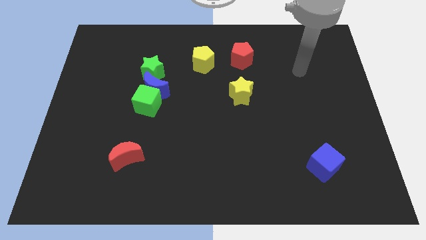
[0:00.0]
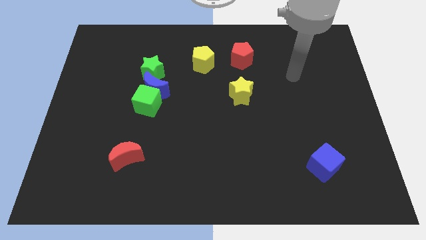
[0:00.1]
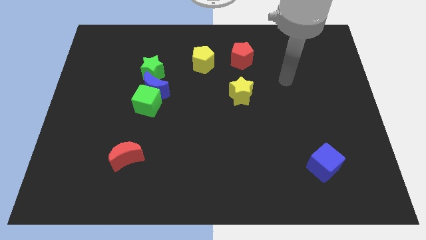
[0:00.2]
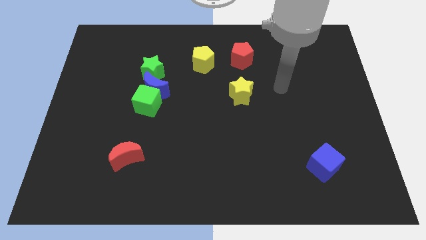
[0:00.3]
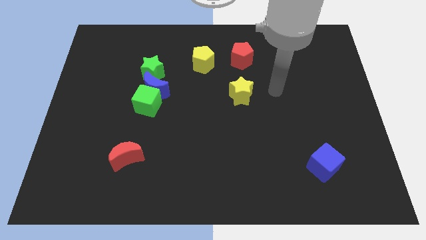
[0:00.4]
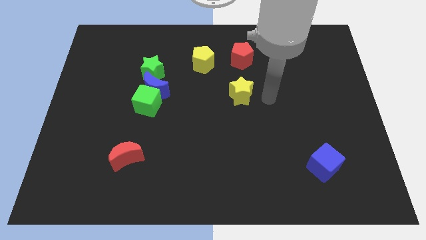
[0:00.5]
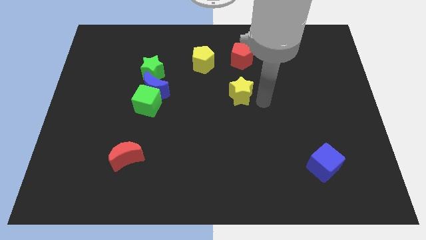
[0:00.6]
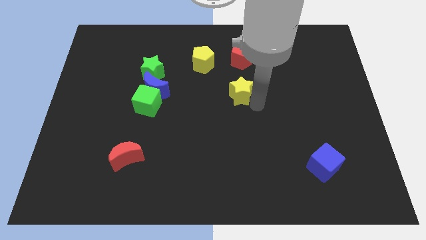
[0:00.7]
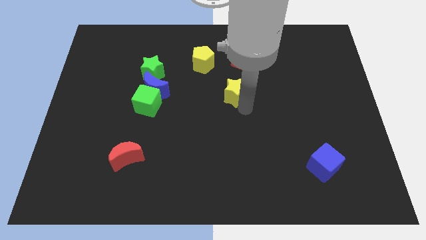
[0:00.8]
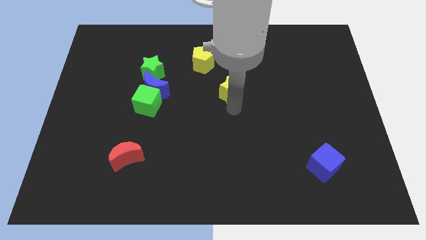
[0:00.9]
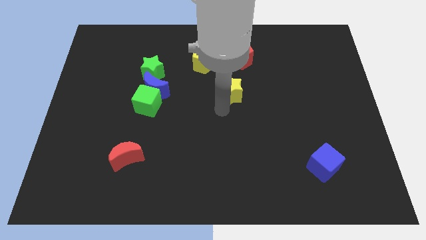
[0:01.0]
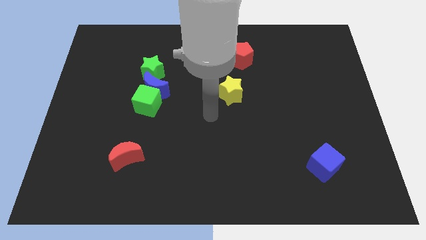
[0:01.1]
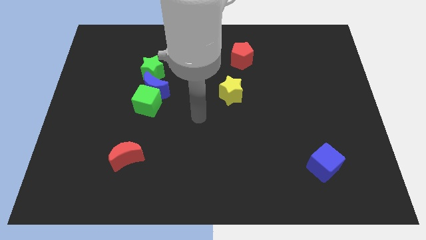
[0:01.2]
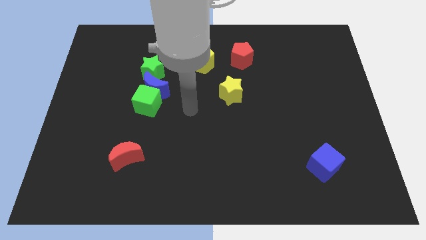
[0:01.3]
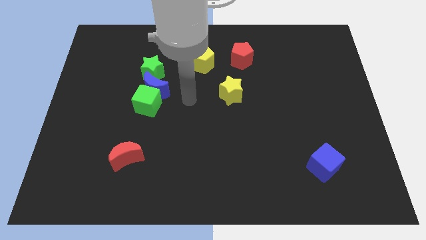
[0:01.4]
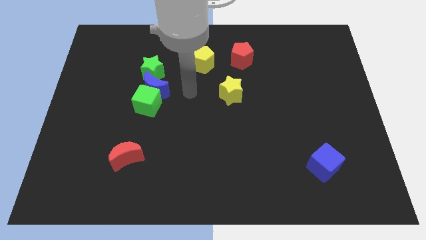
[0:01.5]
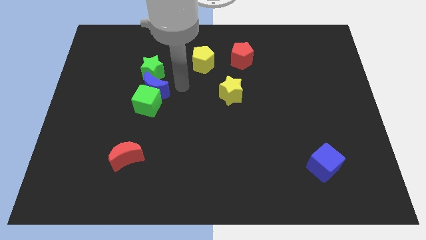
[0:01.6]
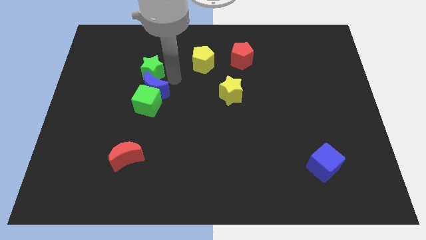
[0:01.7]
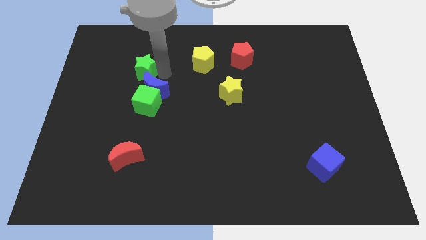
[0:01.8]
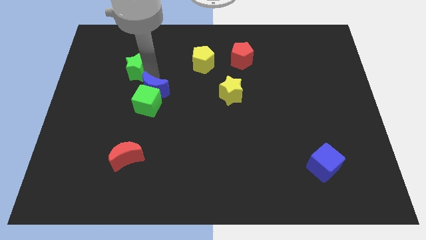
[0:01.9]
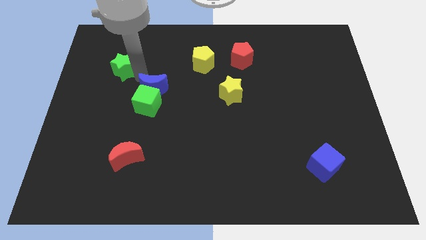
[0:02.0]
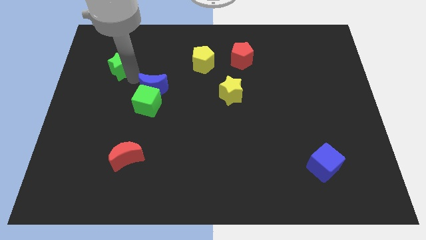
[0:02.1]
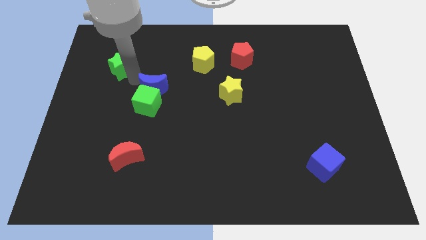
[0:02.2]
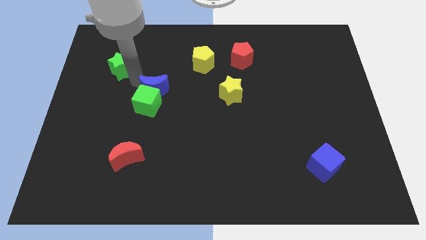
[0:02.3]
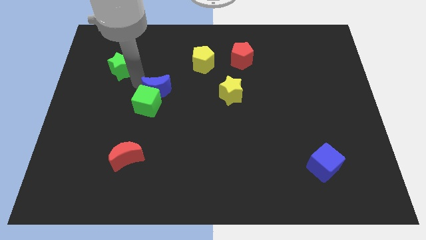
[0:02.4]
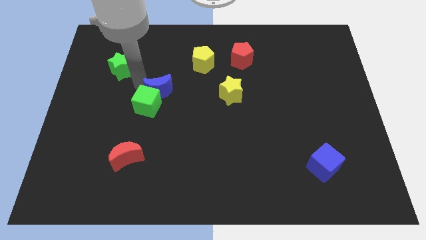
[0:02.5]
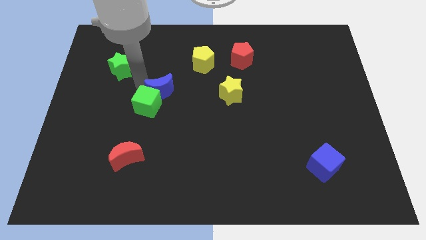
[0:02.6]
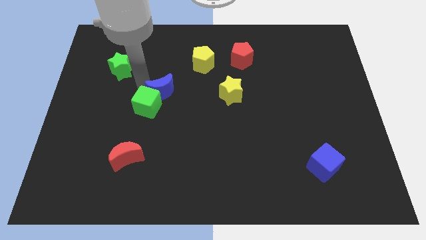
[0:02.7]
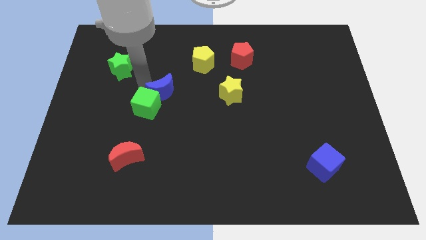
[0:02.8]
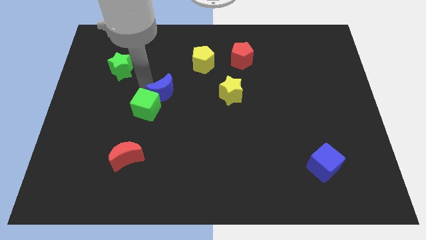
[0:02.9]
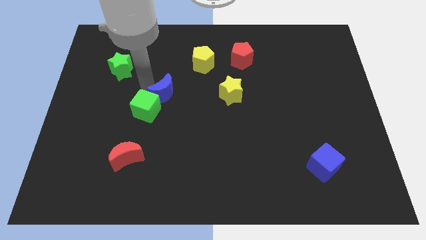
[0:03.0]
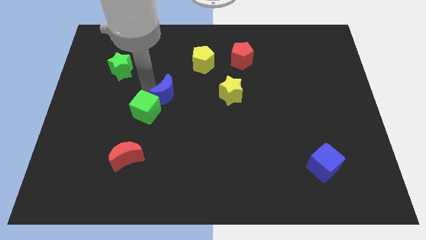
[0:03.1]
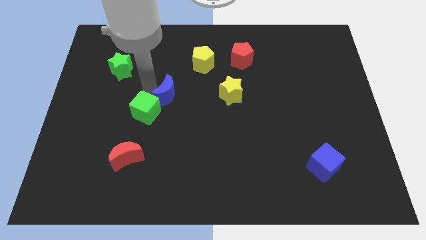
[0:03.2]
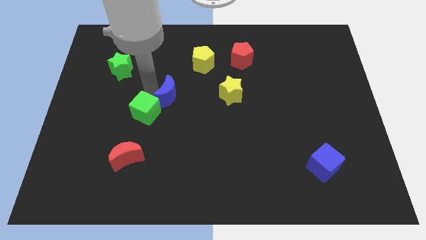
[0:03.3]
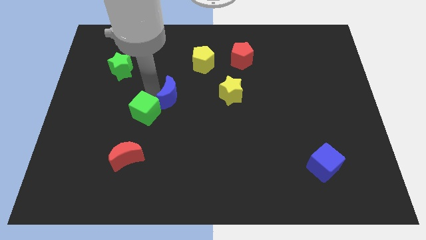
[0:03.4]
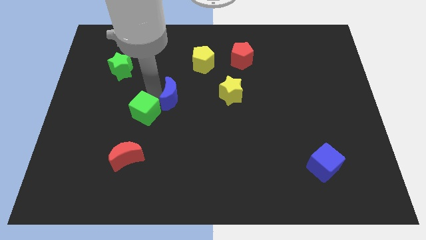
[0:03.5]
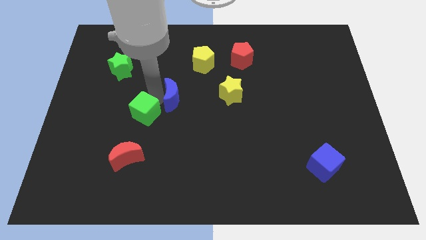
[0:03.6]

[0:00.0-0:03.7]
pull the blue moon apart from the green cube and green star

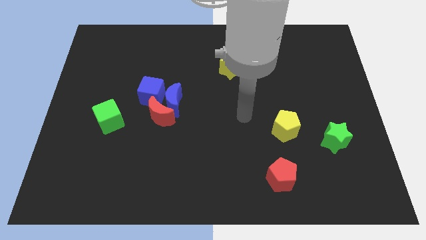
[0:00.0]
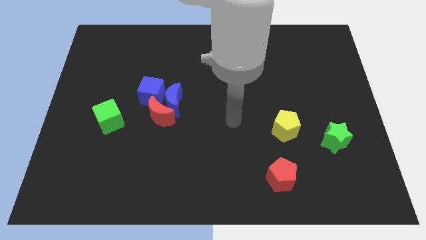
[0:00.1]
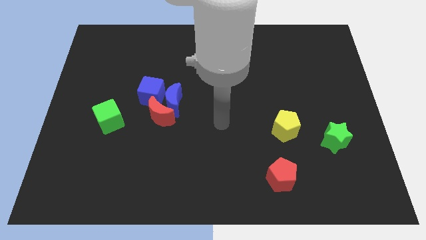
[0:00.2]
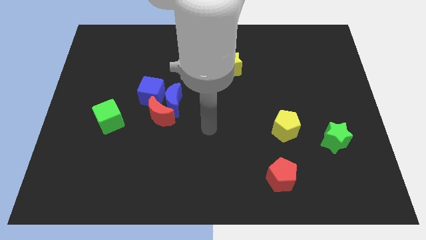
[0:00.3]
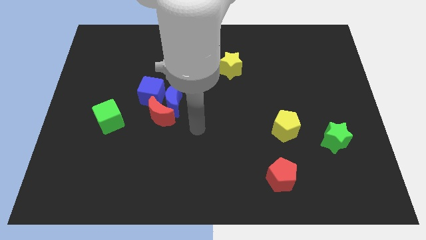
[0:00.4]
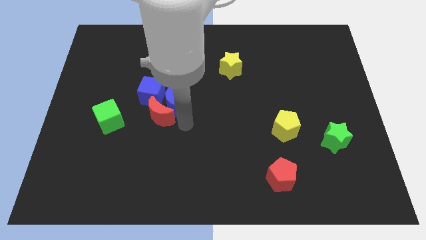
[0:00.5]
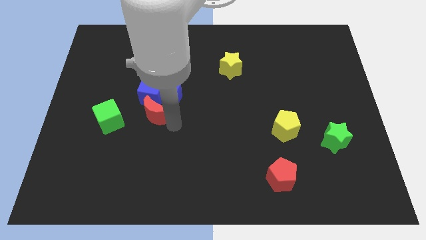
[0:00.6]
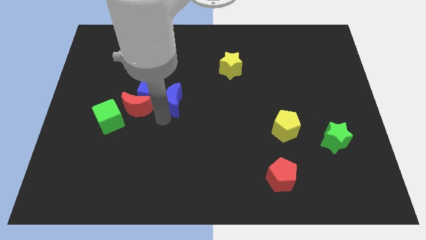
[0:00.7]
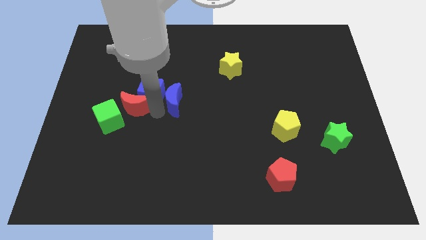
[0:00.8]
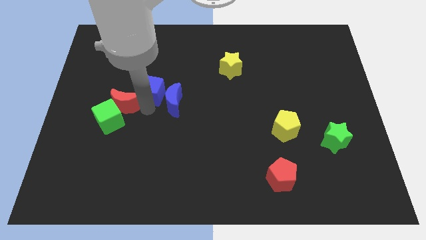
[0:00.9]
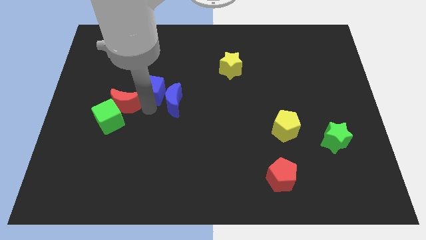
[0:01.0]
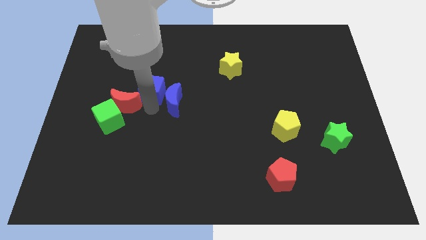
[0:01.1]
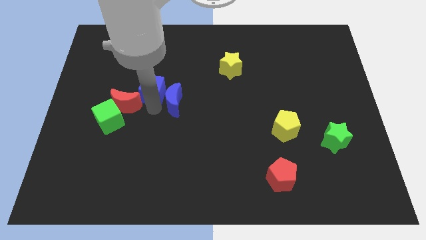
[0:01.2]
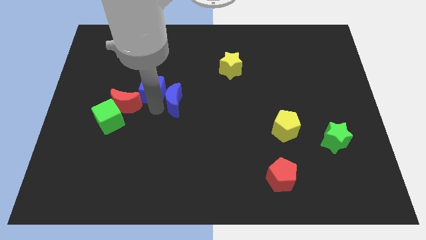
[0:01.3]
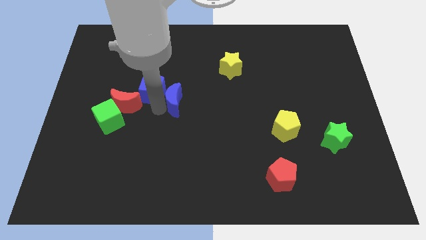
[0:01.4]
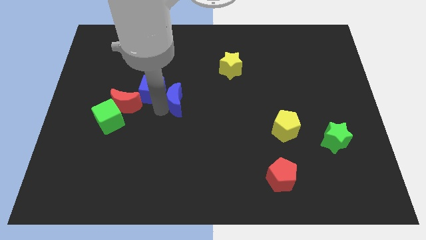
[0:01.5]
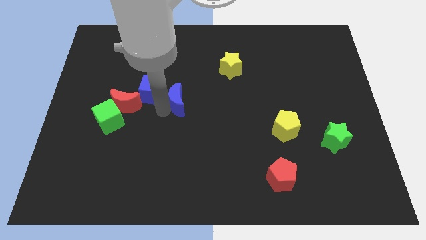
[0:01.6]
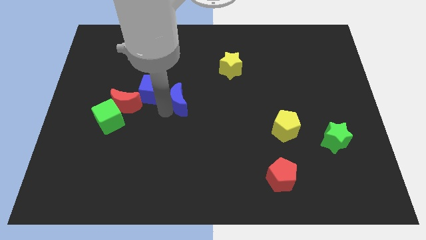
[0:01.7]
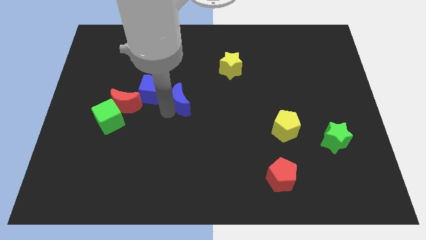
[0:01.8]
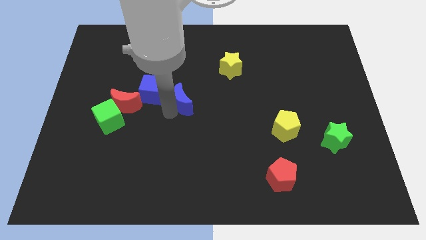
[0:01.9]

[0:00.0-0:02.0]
separate the blue moon from the red moon and blue cube

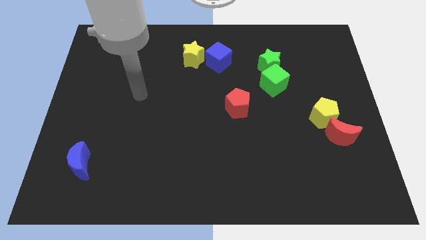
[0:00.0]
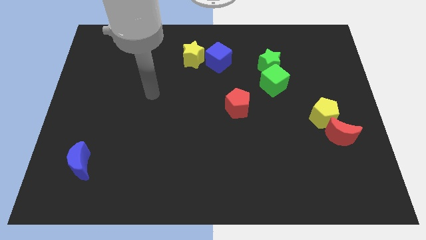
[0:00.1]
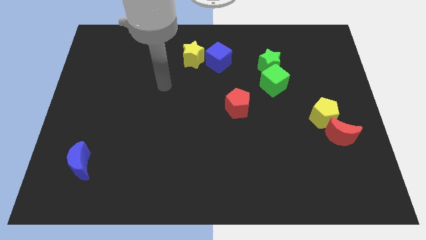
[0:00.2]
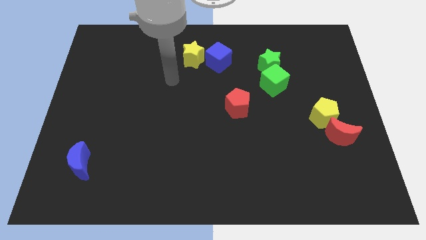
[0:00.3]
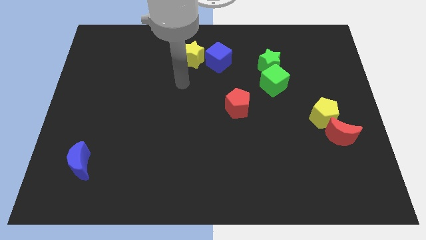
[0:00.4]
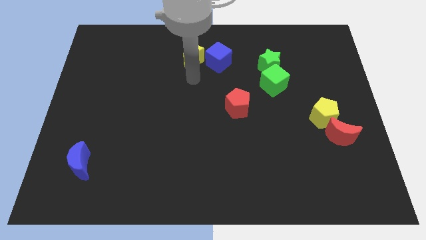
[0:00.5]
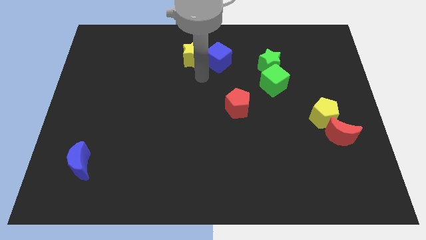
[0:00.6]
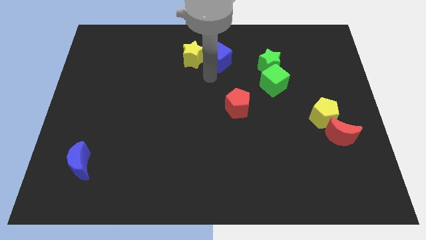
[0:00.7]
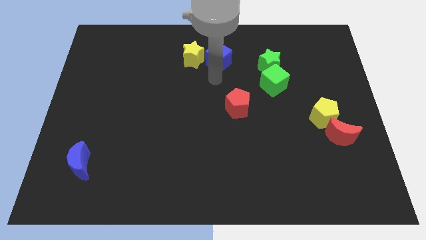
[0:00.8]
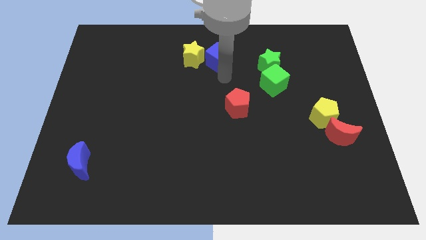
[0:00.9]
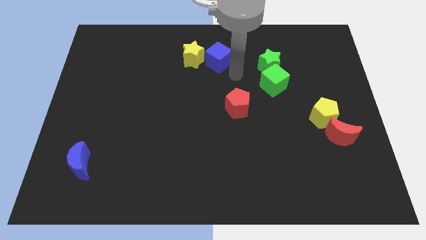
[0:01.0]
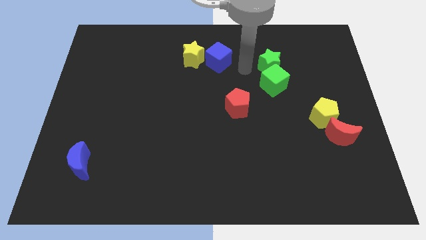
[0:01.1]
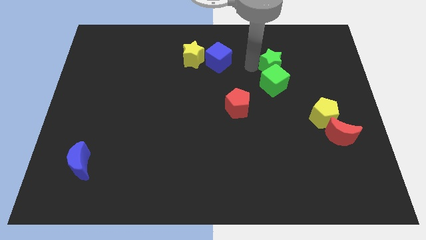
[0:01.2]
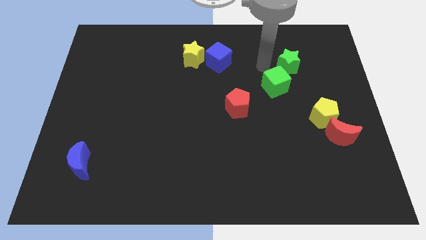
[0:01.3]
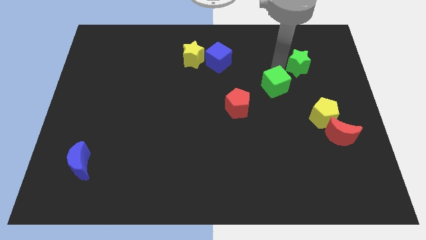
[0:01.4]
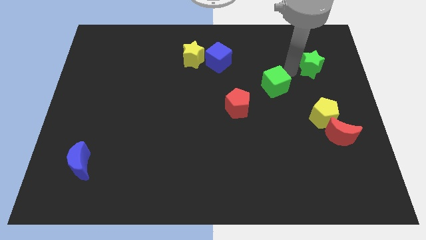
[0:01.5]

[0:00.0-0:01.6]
move the green cube away from the green star

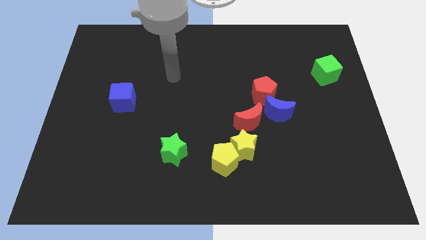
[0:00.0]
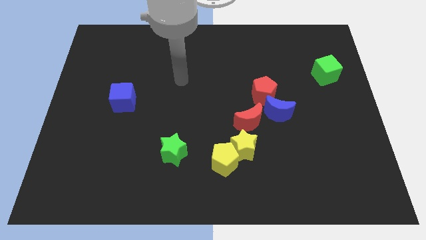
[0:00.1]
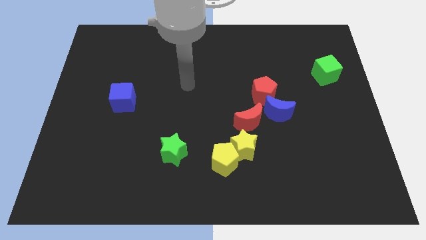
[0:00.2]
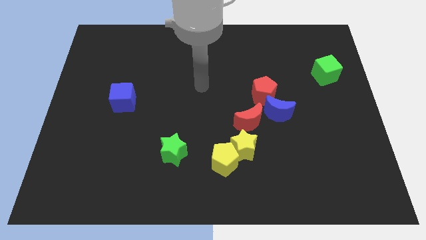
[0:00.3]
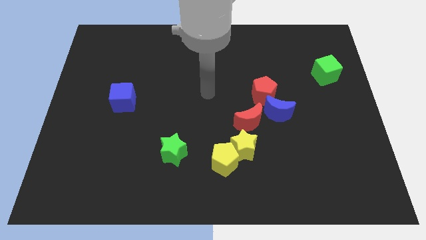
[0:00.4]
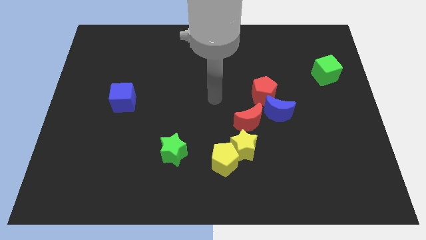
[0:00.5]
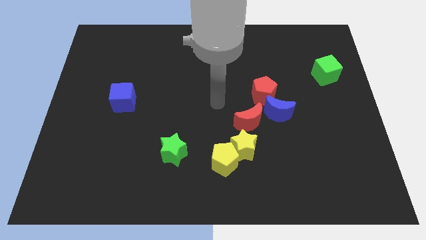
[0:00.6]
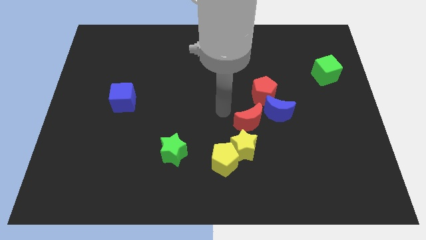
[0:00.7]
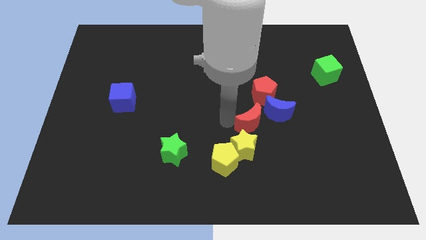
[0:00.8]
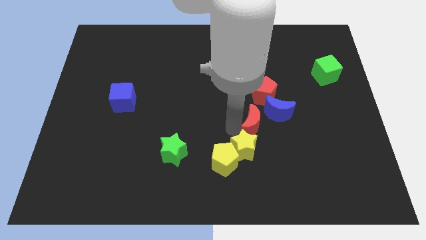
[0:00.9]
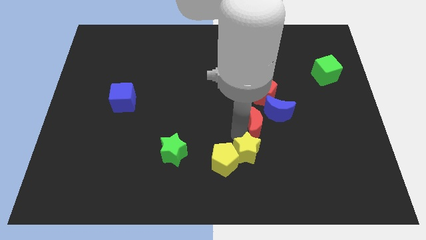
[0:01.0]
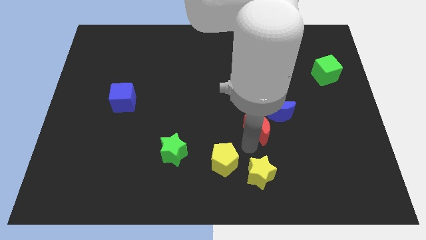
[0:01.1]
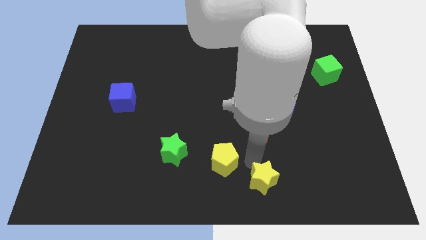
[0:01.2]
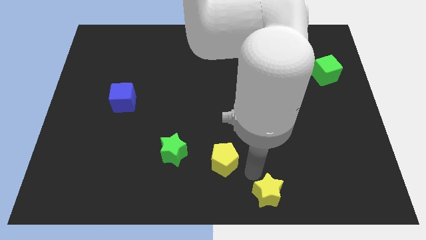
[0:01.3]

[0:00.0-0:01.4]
move the yellow pentagon away from the yellow star

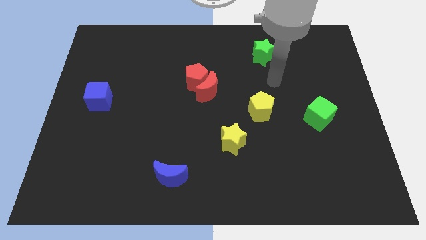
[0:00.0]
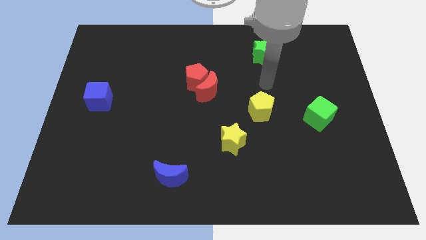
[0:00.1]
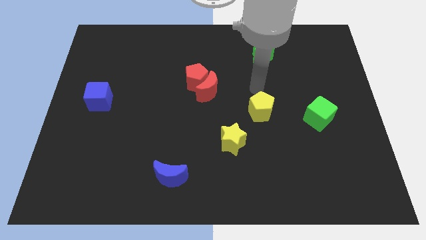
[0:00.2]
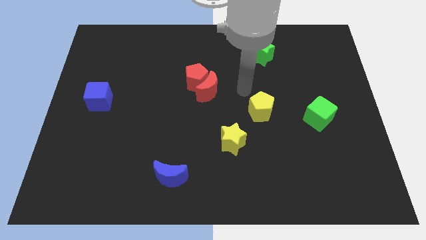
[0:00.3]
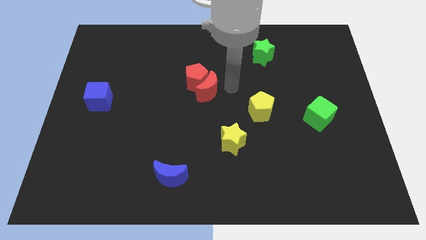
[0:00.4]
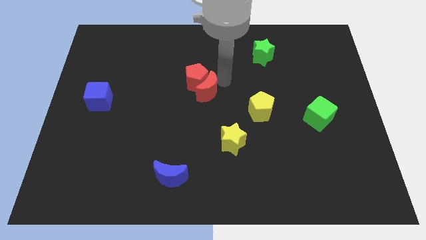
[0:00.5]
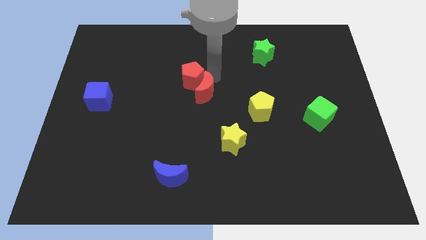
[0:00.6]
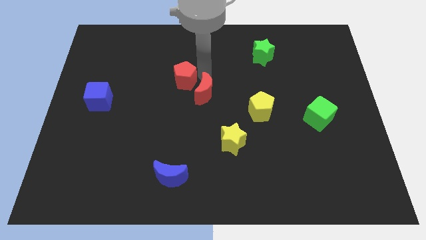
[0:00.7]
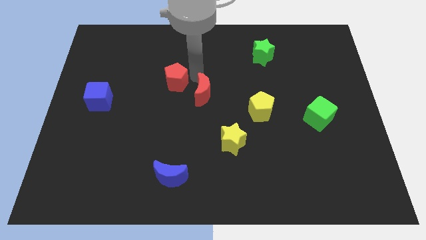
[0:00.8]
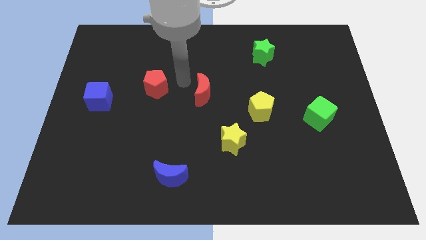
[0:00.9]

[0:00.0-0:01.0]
move the red moon away from the red pentagon
